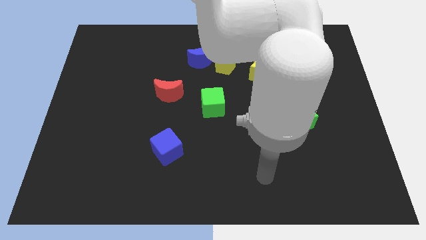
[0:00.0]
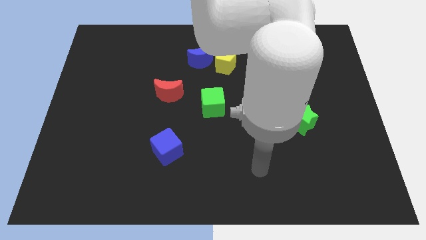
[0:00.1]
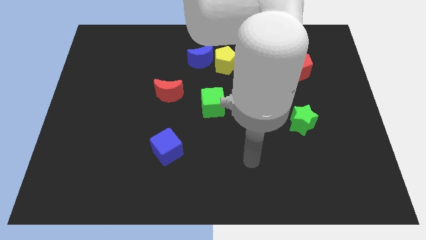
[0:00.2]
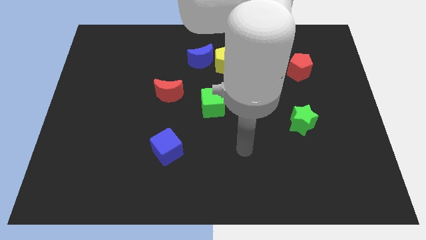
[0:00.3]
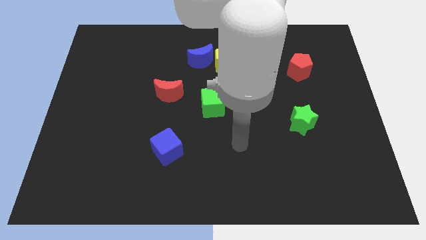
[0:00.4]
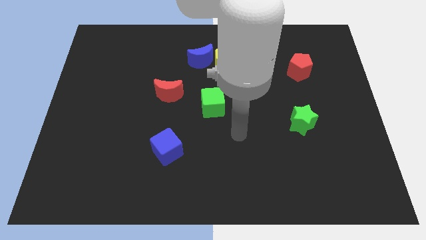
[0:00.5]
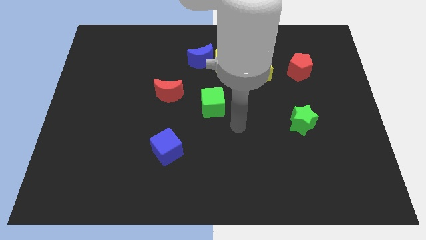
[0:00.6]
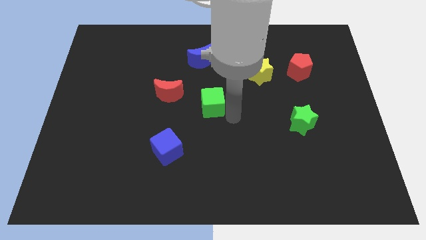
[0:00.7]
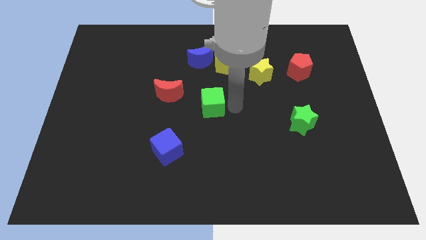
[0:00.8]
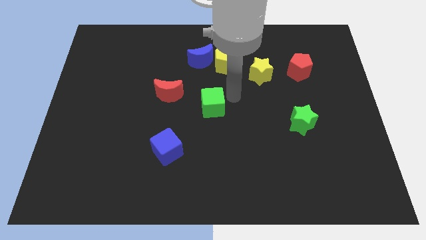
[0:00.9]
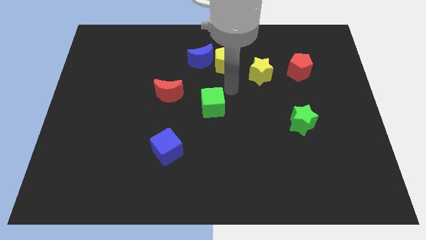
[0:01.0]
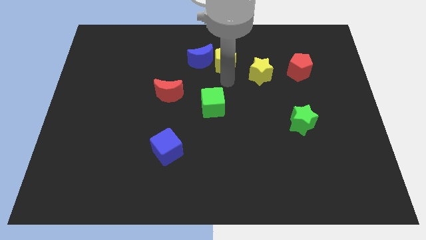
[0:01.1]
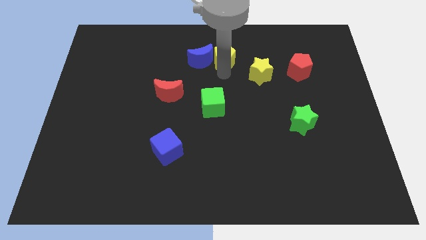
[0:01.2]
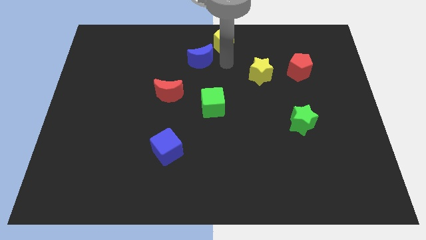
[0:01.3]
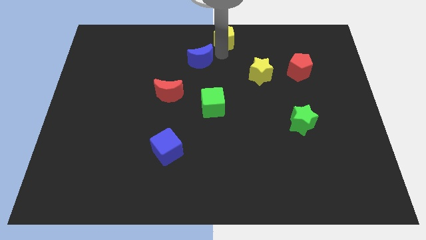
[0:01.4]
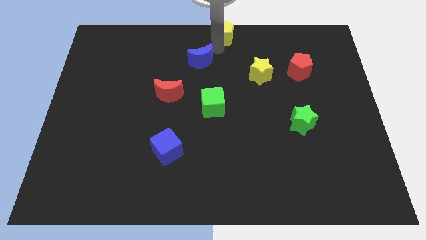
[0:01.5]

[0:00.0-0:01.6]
separate the blue moon from the yellow pentagon

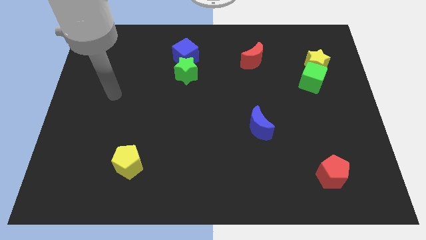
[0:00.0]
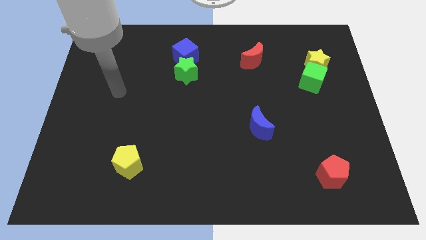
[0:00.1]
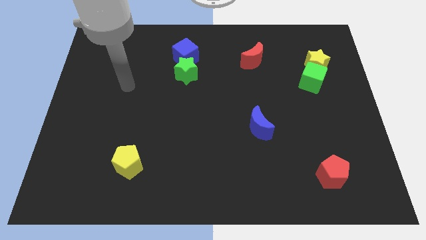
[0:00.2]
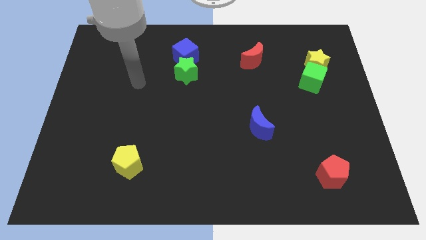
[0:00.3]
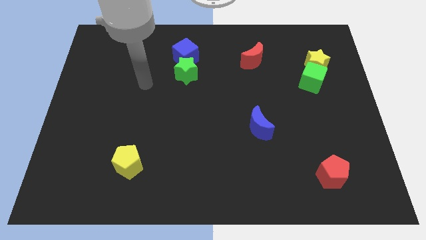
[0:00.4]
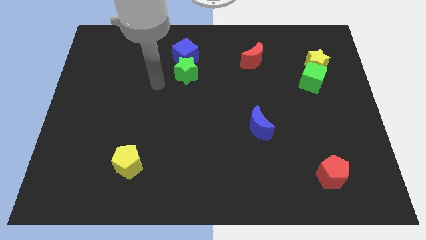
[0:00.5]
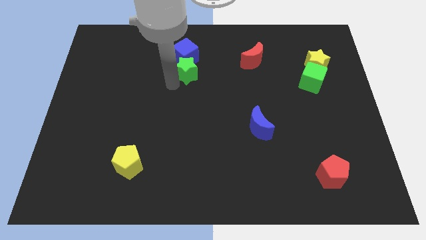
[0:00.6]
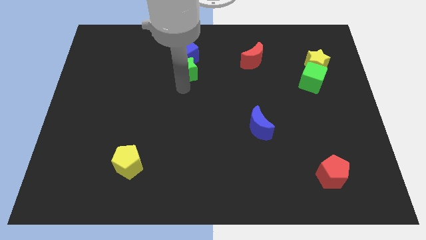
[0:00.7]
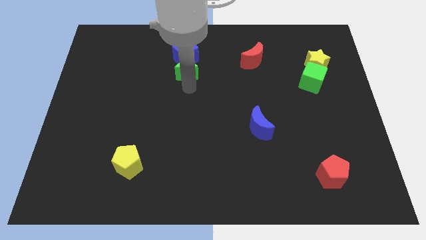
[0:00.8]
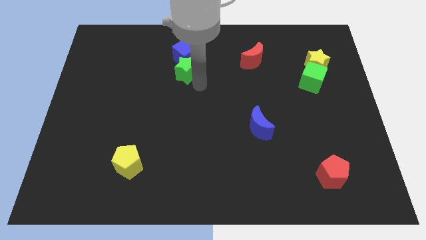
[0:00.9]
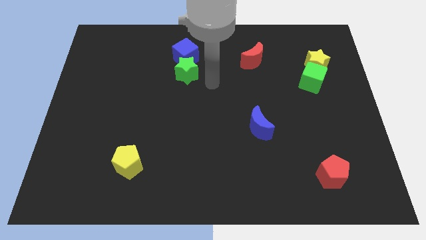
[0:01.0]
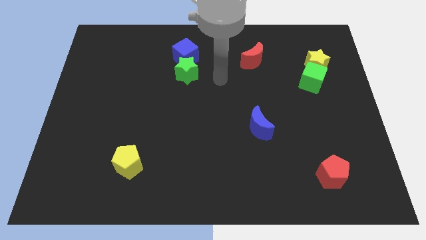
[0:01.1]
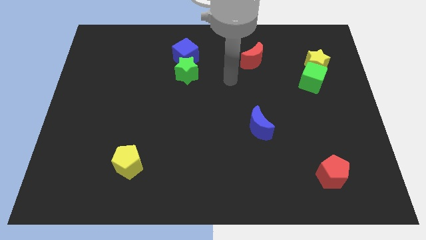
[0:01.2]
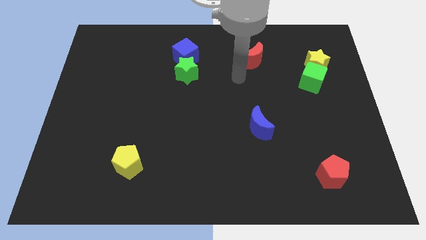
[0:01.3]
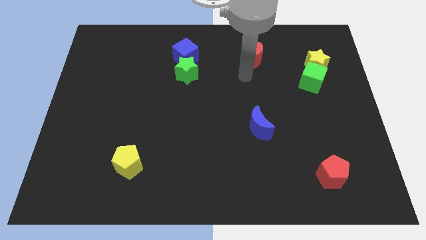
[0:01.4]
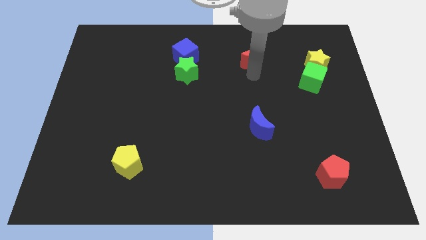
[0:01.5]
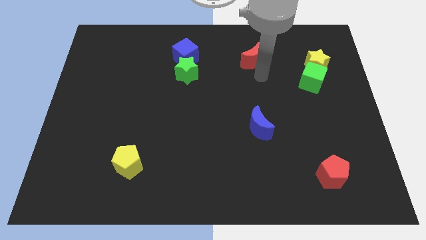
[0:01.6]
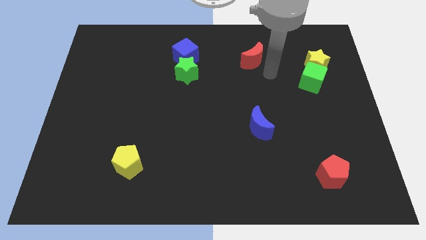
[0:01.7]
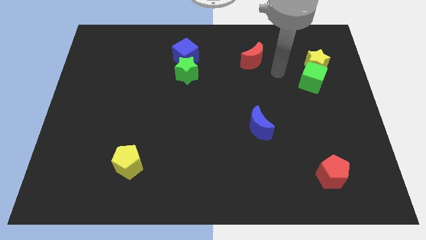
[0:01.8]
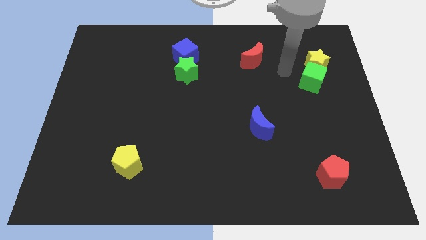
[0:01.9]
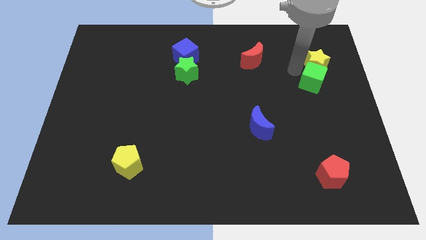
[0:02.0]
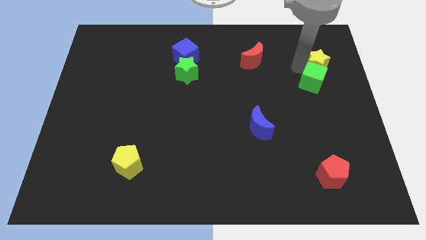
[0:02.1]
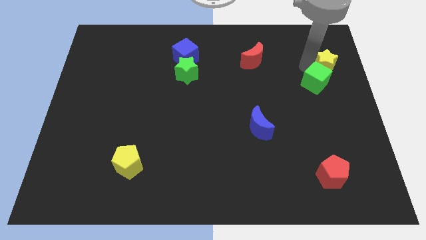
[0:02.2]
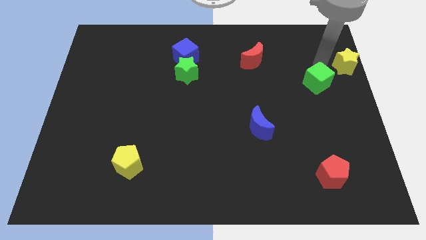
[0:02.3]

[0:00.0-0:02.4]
separate the green cube from the yellow star

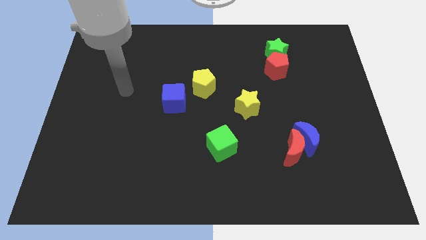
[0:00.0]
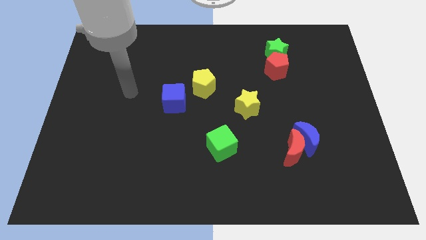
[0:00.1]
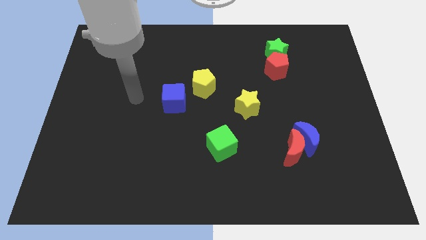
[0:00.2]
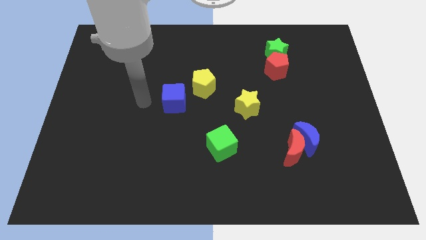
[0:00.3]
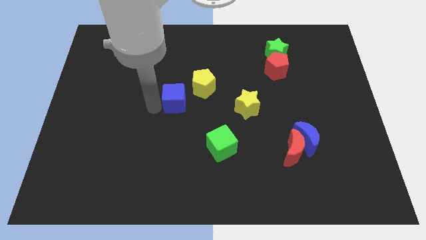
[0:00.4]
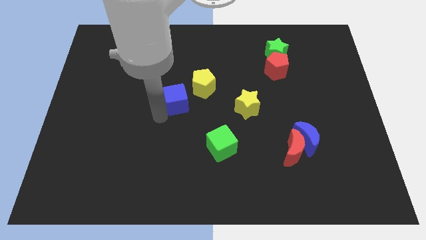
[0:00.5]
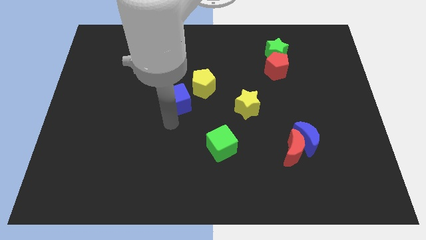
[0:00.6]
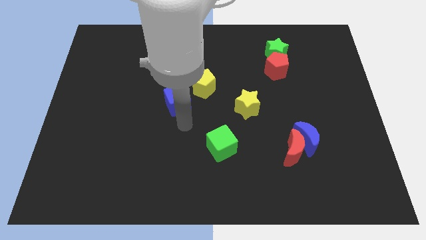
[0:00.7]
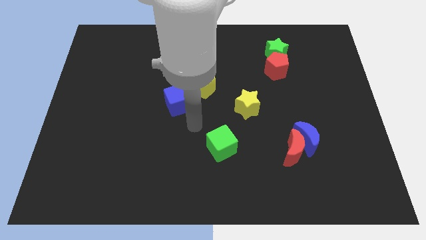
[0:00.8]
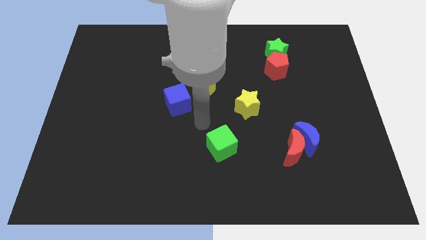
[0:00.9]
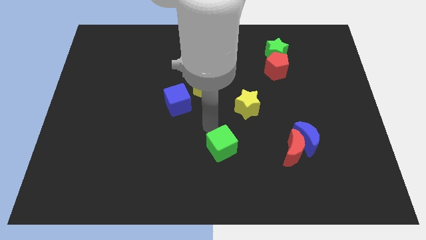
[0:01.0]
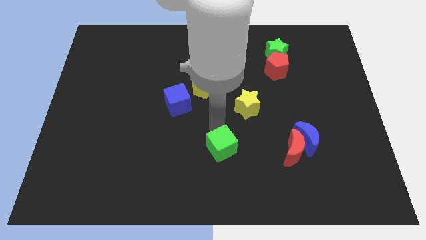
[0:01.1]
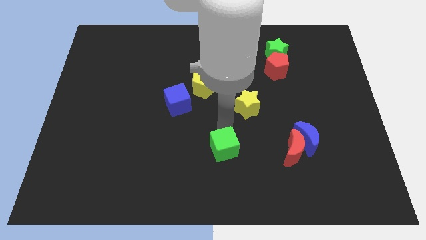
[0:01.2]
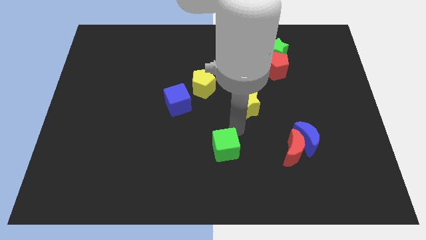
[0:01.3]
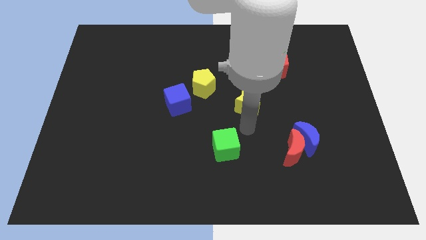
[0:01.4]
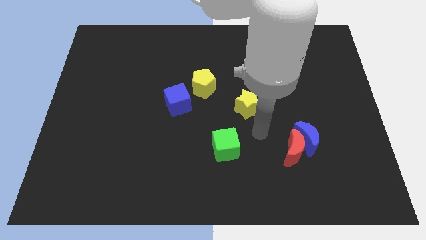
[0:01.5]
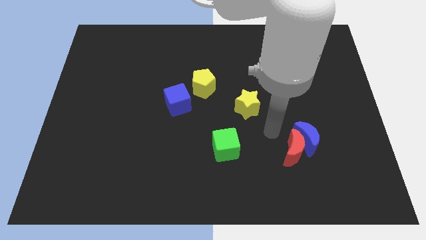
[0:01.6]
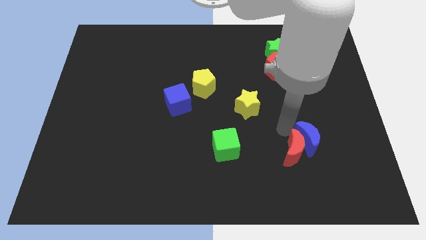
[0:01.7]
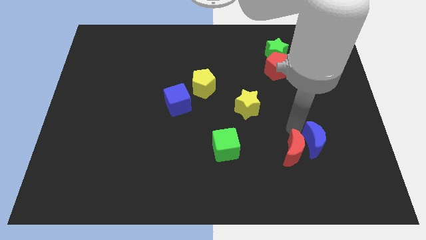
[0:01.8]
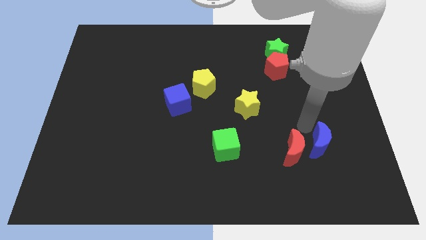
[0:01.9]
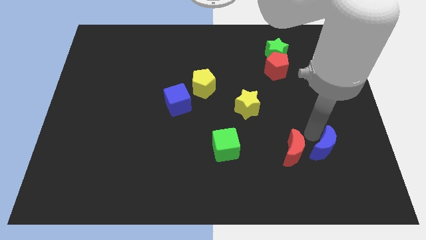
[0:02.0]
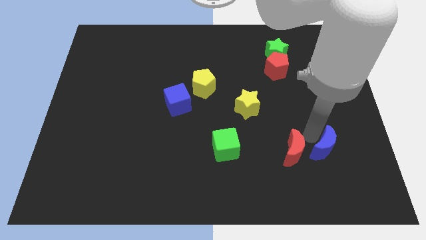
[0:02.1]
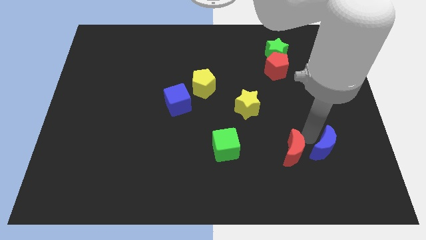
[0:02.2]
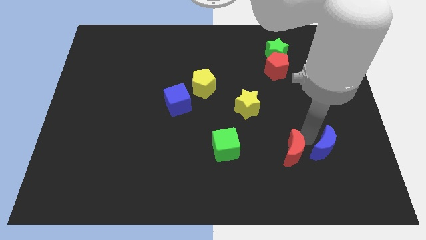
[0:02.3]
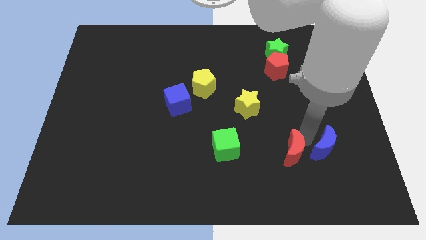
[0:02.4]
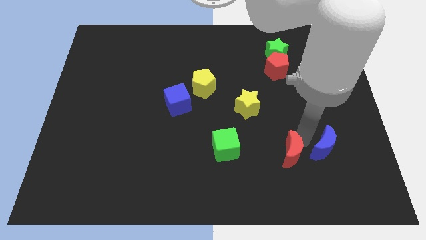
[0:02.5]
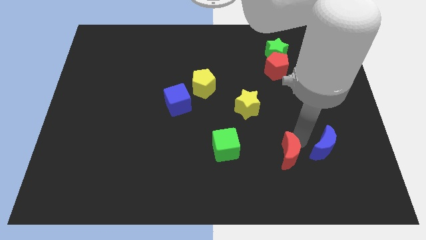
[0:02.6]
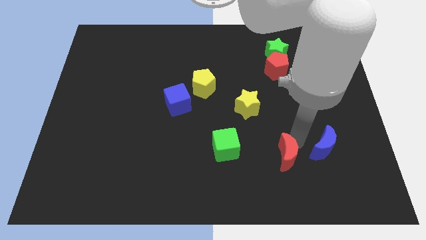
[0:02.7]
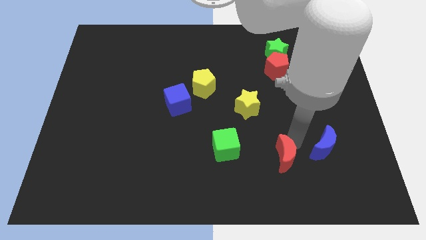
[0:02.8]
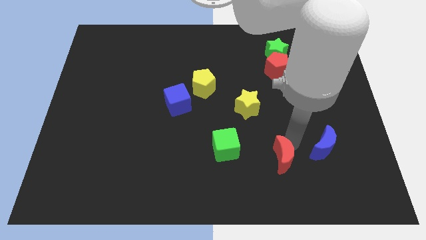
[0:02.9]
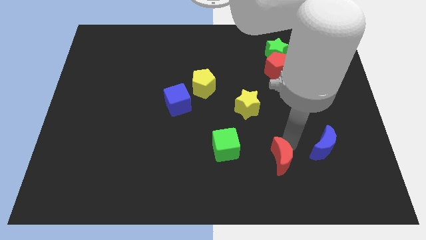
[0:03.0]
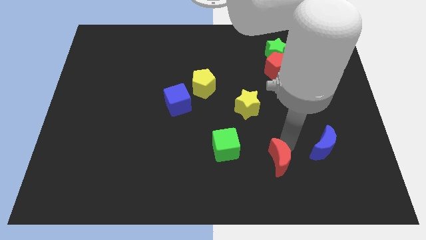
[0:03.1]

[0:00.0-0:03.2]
pull the red moon apart from the blue moon

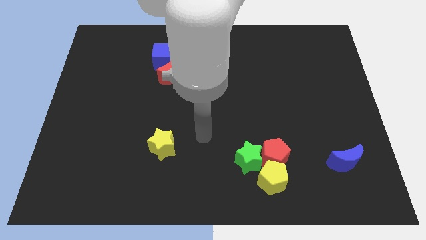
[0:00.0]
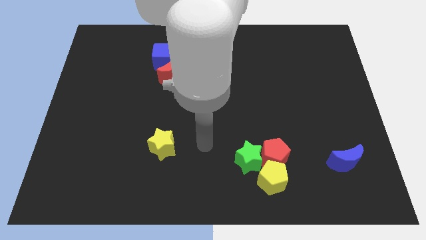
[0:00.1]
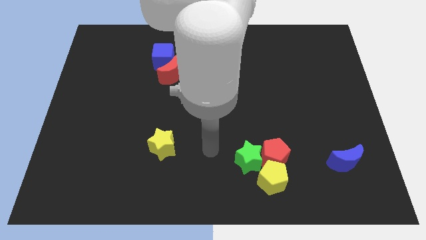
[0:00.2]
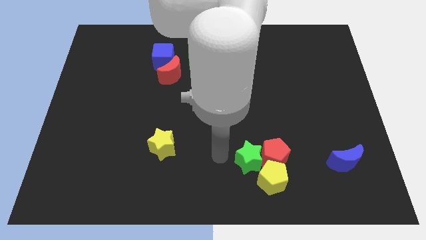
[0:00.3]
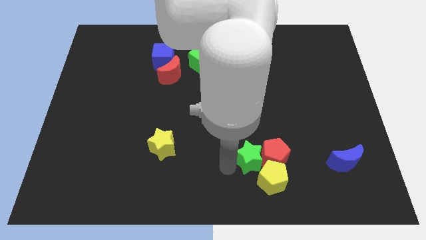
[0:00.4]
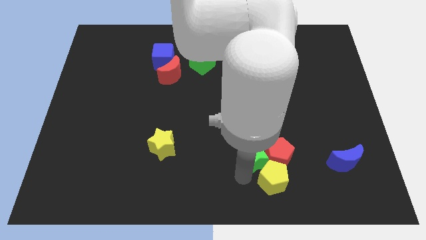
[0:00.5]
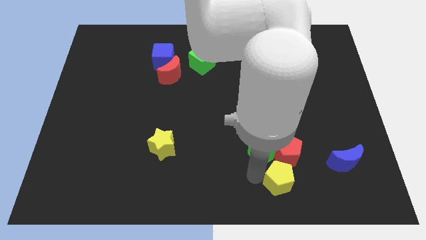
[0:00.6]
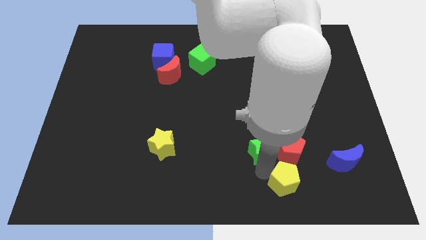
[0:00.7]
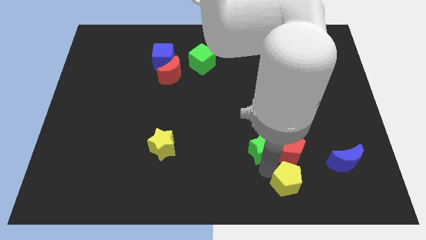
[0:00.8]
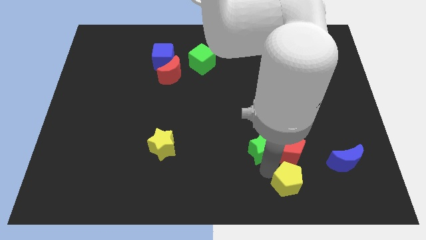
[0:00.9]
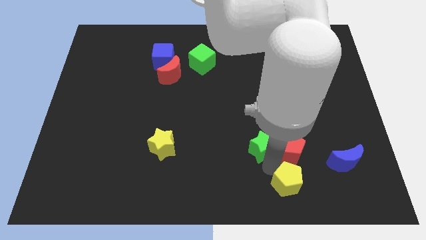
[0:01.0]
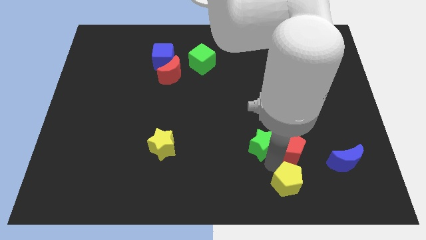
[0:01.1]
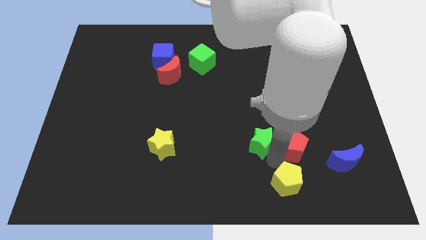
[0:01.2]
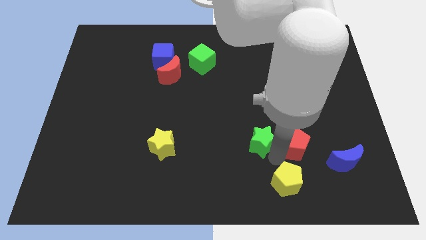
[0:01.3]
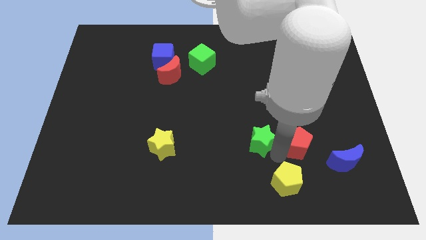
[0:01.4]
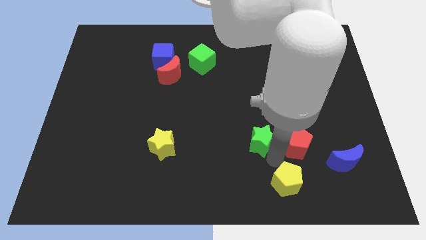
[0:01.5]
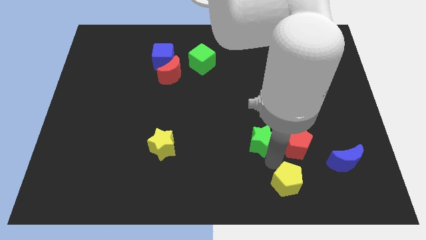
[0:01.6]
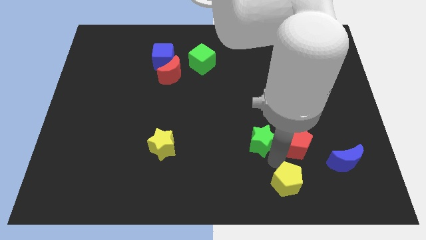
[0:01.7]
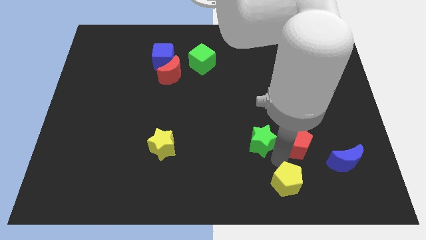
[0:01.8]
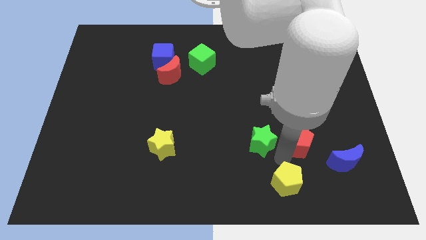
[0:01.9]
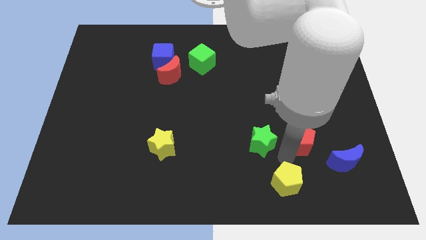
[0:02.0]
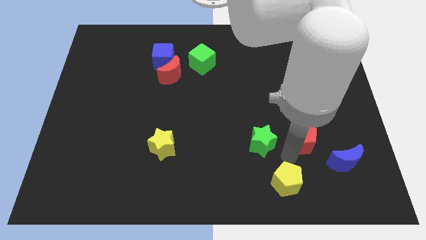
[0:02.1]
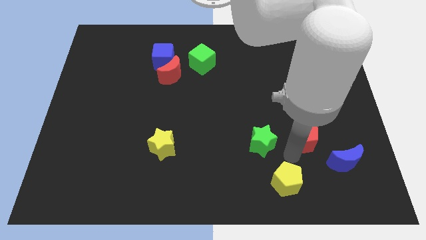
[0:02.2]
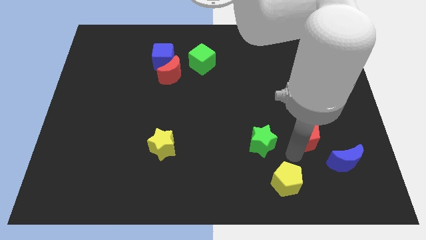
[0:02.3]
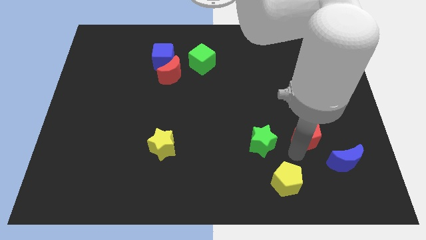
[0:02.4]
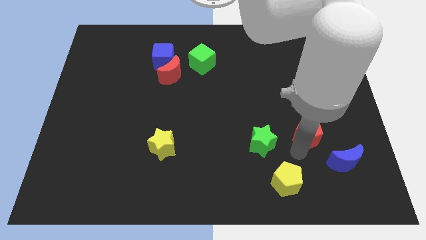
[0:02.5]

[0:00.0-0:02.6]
move the red pentagon away from the yellow pentagon and green star
